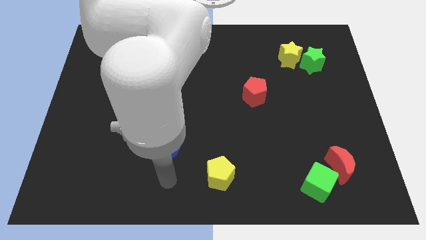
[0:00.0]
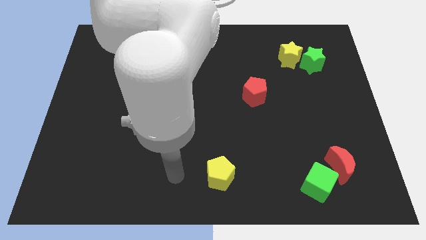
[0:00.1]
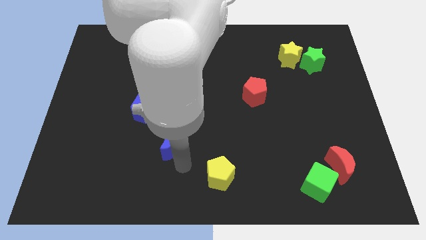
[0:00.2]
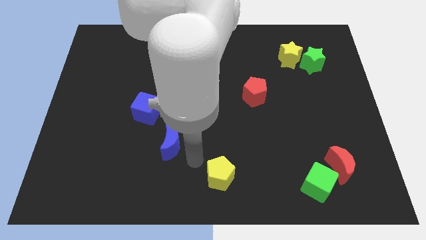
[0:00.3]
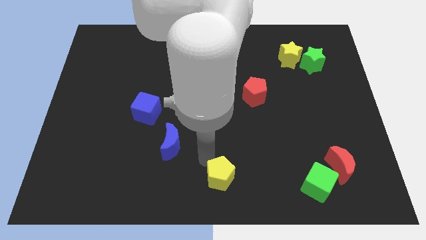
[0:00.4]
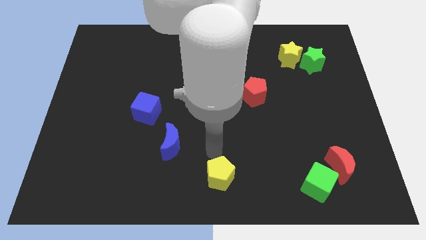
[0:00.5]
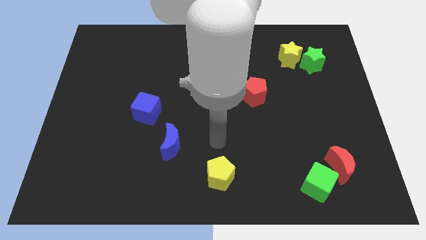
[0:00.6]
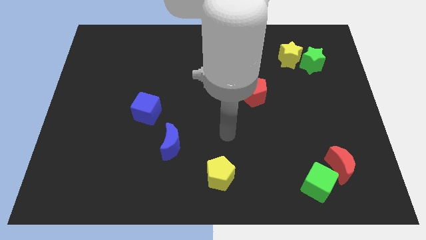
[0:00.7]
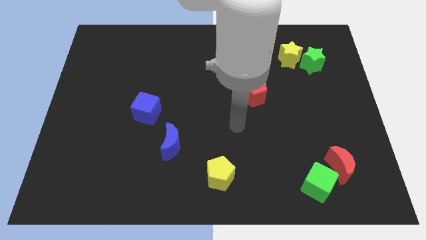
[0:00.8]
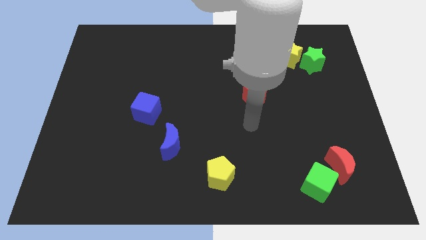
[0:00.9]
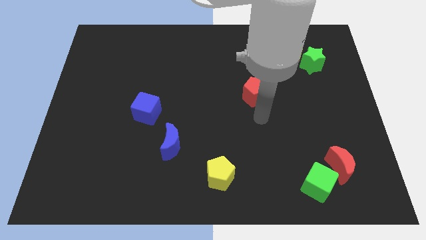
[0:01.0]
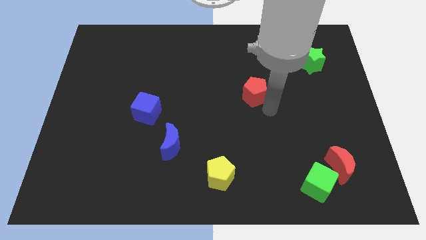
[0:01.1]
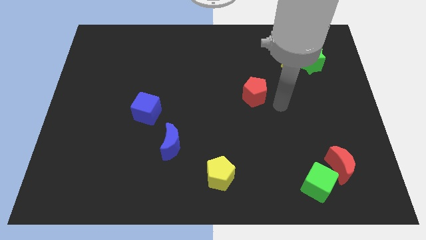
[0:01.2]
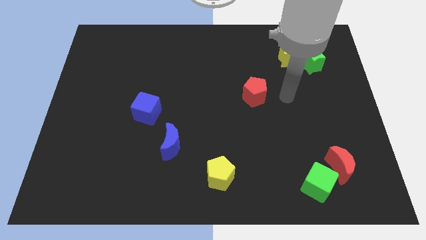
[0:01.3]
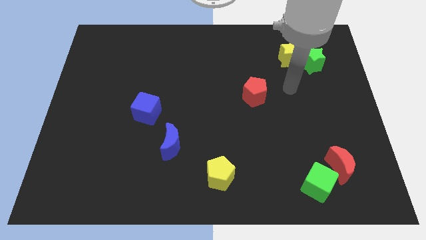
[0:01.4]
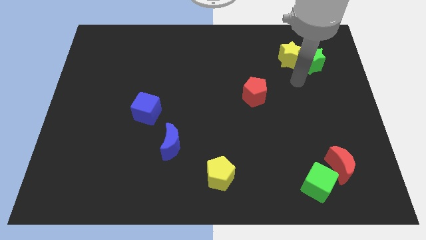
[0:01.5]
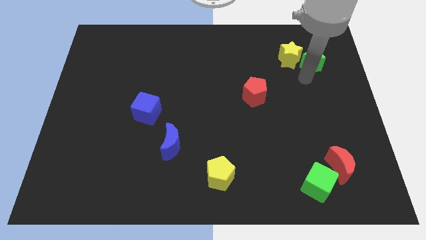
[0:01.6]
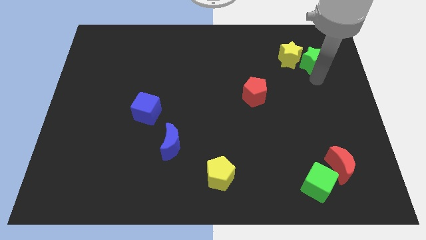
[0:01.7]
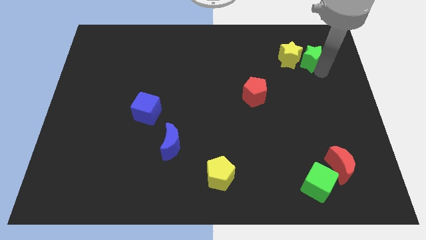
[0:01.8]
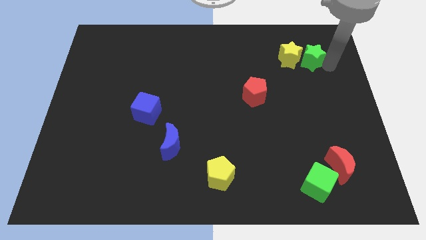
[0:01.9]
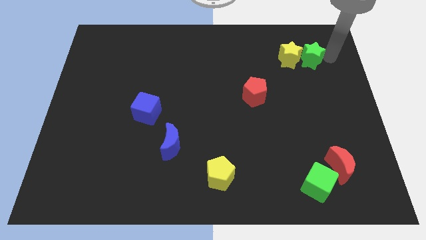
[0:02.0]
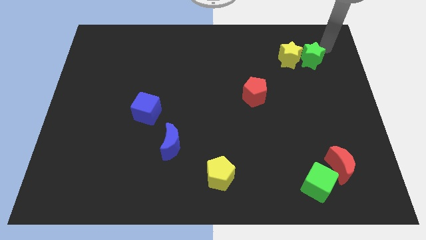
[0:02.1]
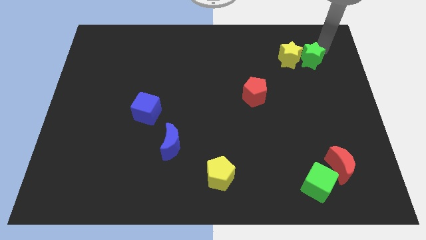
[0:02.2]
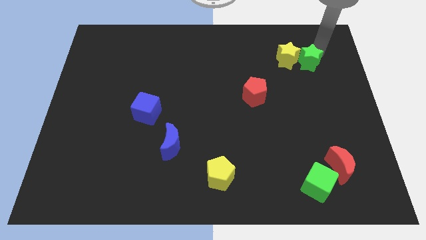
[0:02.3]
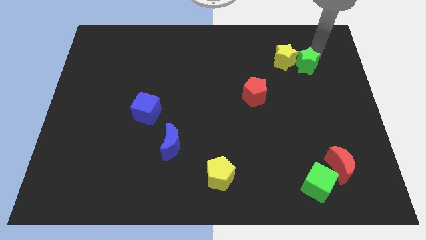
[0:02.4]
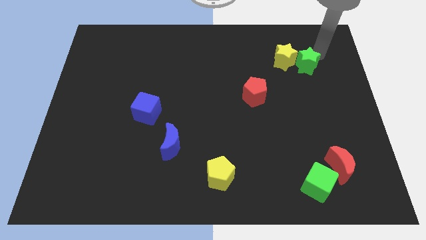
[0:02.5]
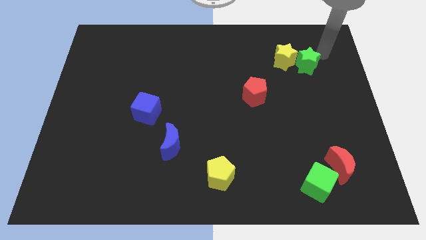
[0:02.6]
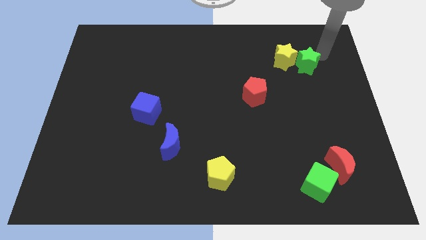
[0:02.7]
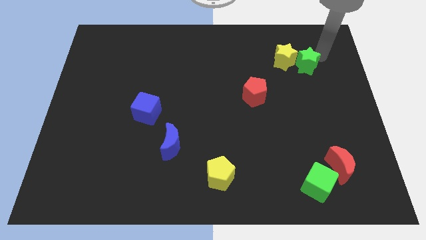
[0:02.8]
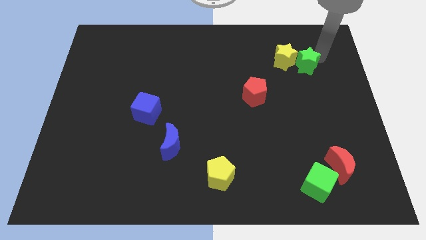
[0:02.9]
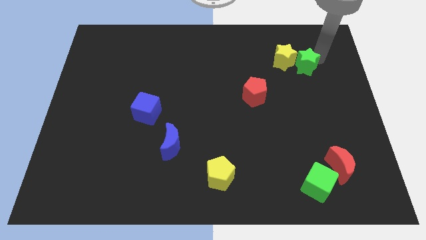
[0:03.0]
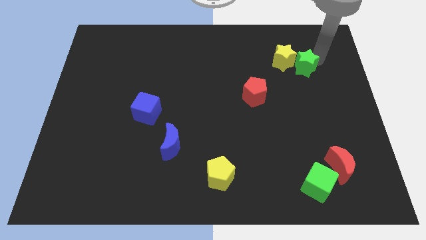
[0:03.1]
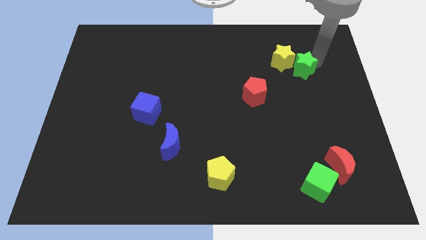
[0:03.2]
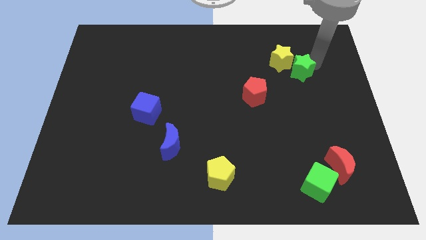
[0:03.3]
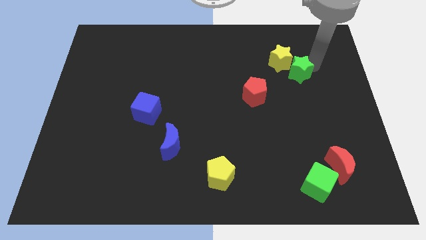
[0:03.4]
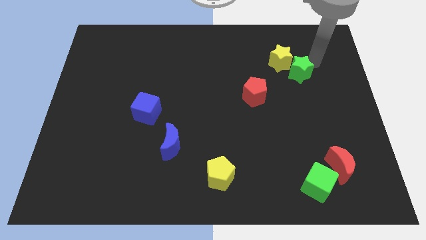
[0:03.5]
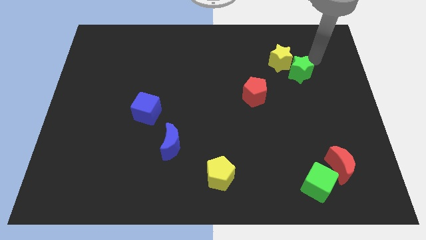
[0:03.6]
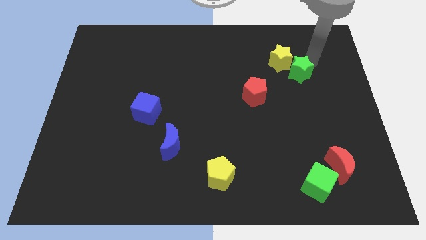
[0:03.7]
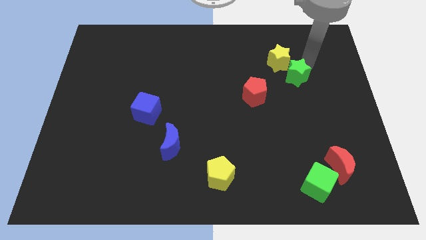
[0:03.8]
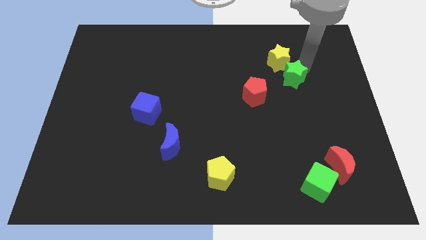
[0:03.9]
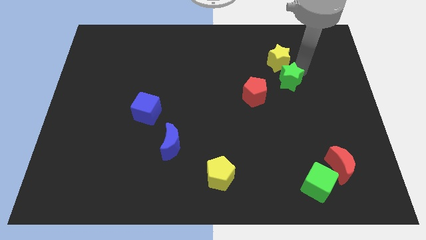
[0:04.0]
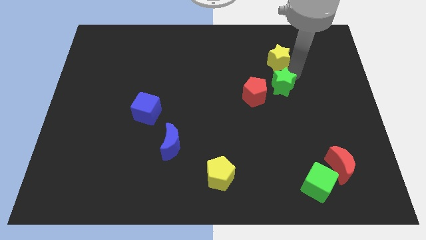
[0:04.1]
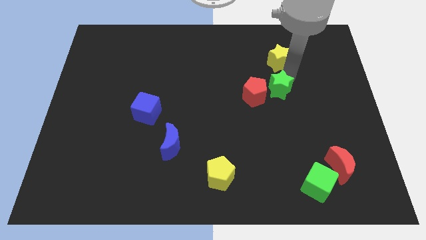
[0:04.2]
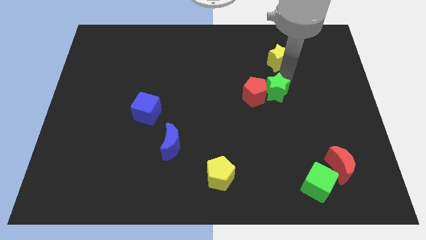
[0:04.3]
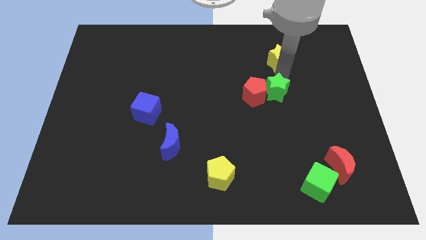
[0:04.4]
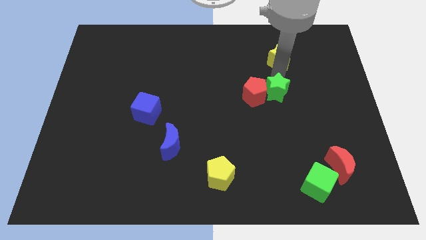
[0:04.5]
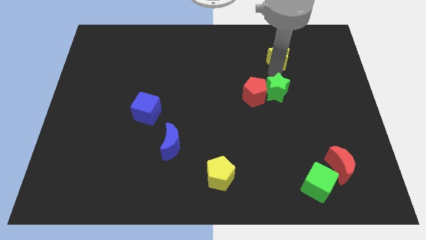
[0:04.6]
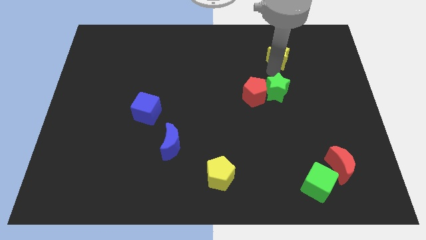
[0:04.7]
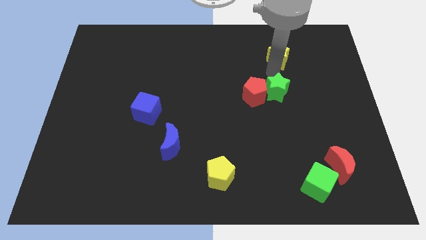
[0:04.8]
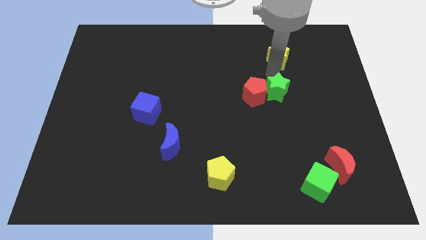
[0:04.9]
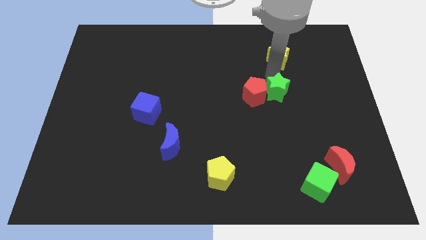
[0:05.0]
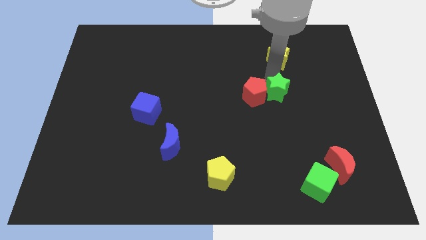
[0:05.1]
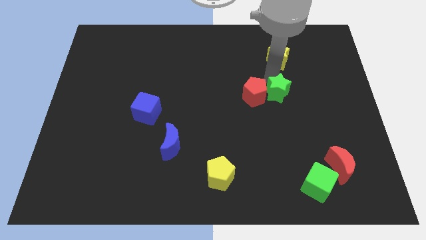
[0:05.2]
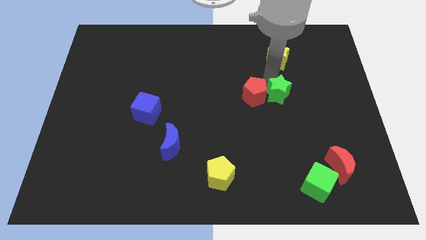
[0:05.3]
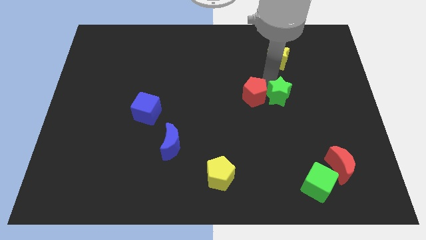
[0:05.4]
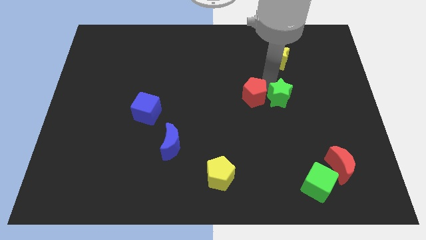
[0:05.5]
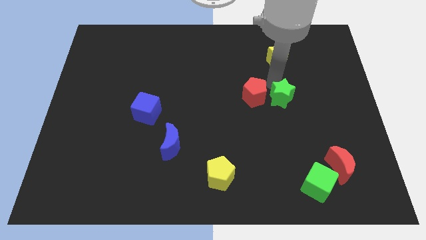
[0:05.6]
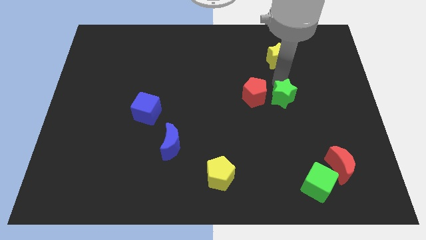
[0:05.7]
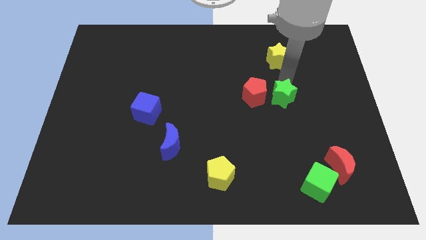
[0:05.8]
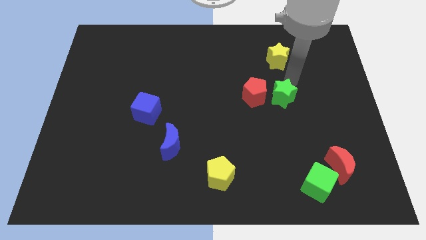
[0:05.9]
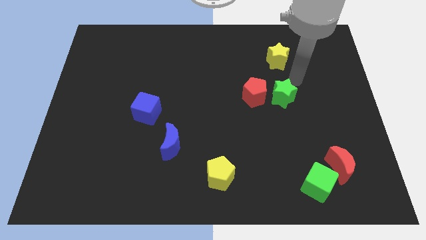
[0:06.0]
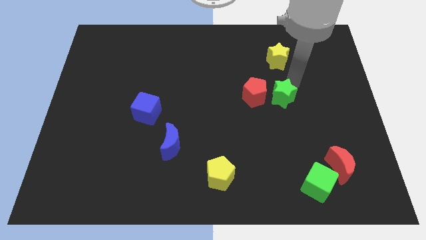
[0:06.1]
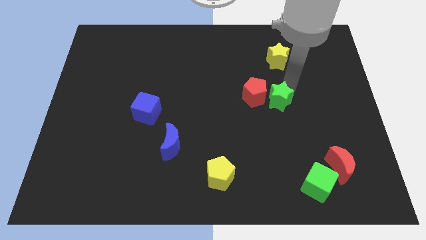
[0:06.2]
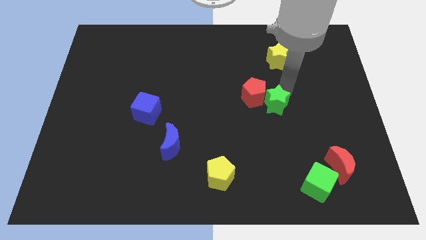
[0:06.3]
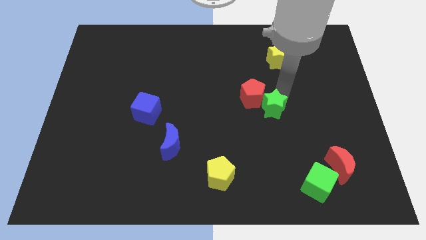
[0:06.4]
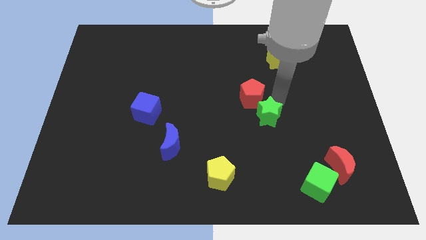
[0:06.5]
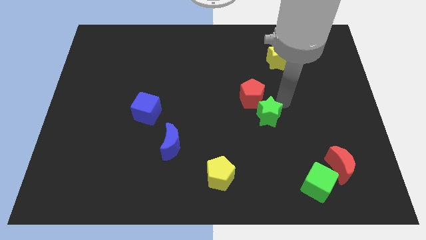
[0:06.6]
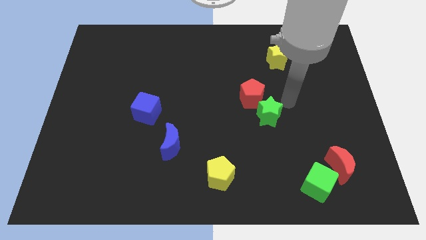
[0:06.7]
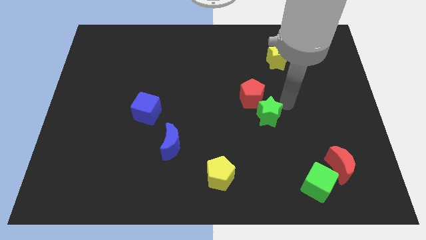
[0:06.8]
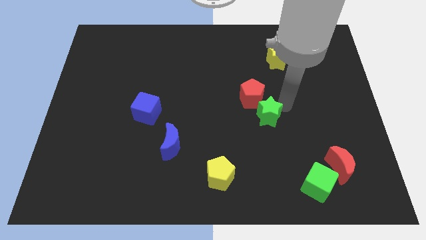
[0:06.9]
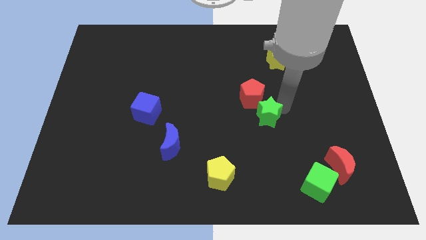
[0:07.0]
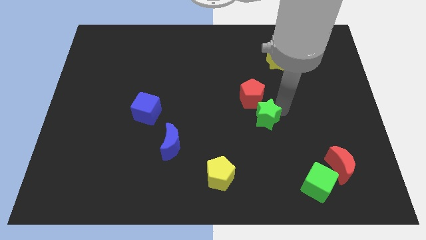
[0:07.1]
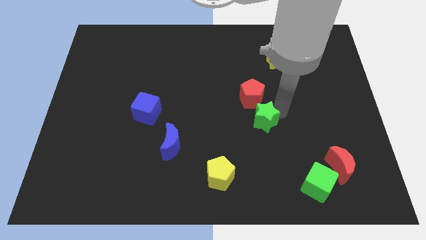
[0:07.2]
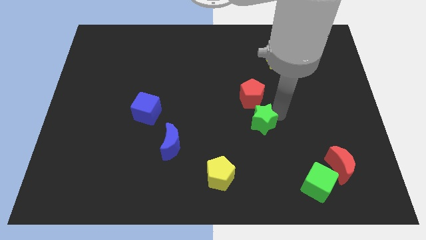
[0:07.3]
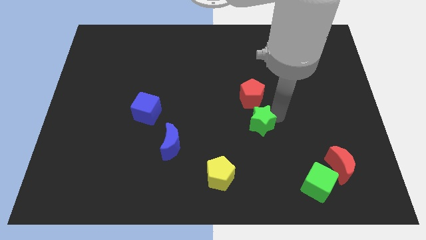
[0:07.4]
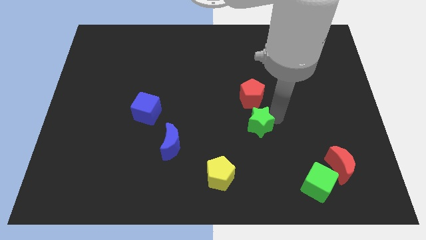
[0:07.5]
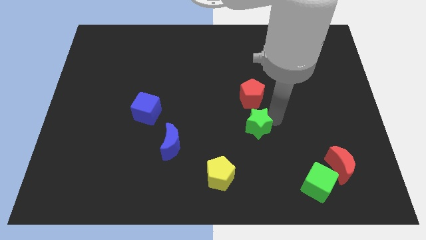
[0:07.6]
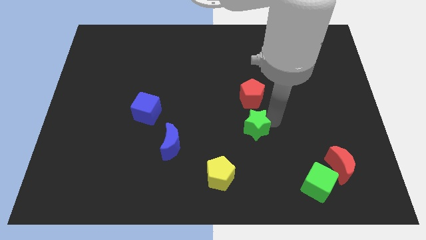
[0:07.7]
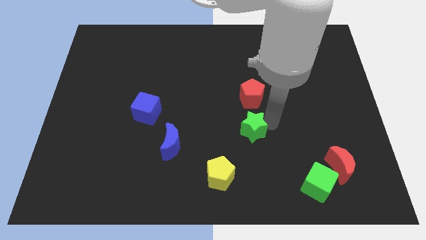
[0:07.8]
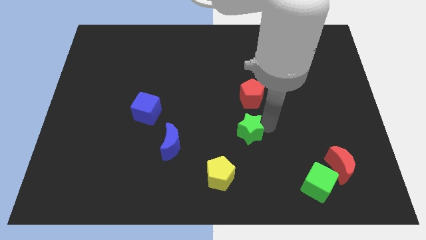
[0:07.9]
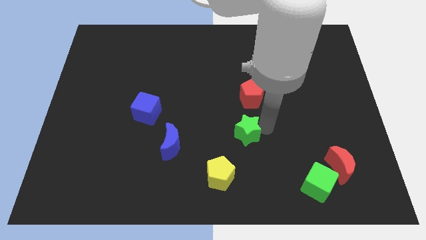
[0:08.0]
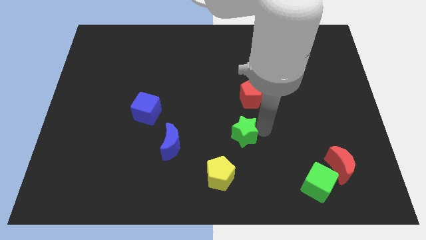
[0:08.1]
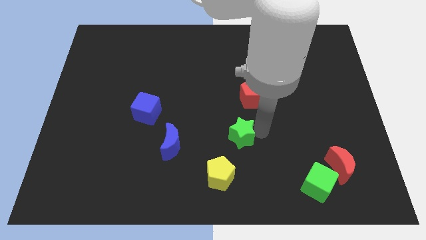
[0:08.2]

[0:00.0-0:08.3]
slide the green star above the yellow pentagon
